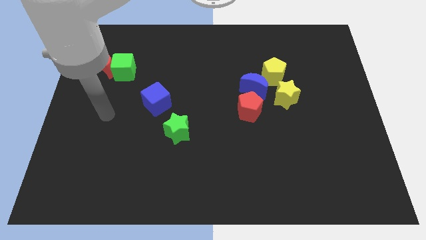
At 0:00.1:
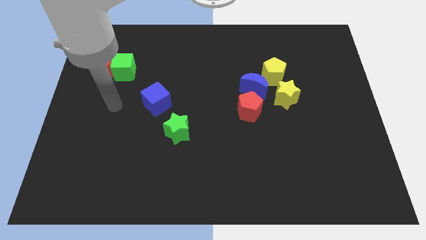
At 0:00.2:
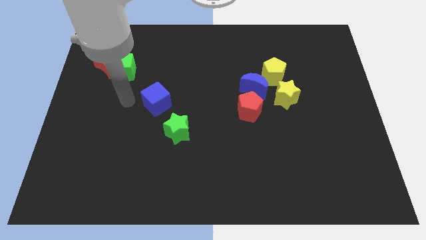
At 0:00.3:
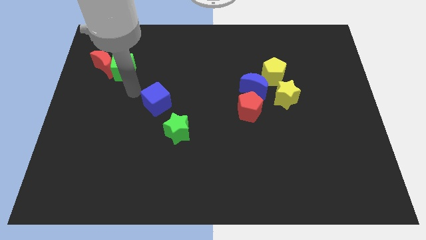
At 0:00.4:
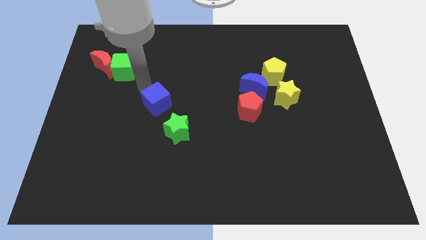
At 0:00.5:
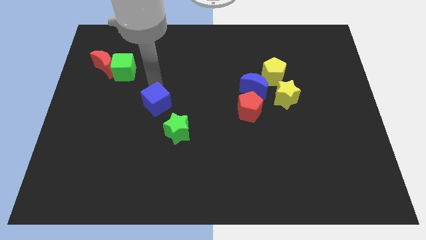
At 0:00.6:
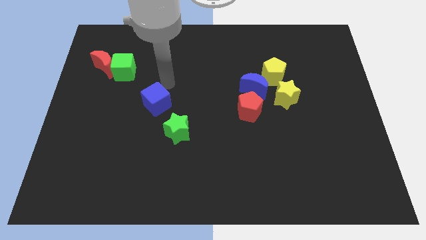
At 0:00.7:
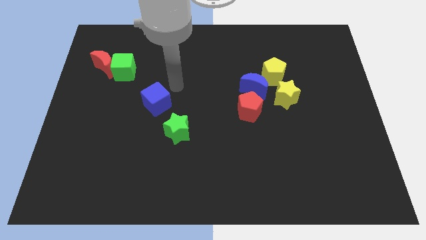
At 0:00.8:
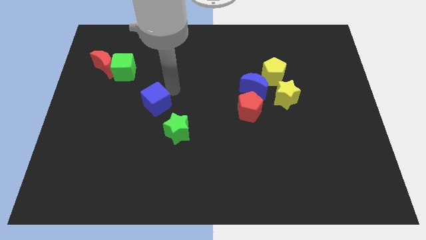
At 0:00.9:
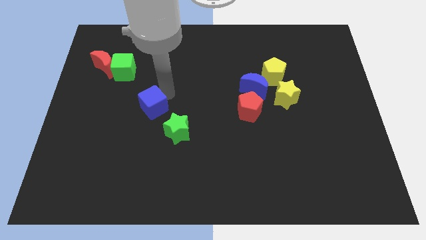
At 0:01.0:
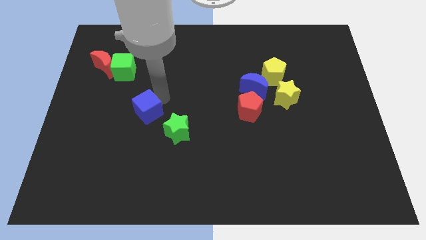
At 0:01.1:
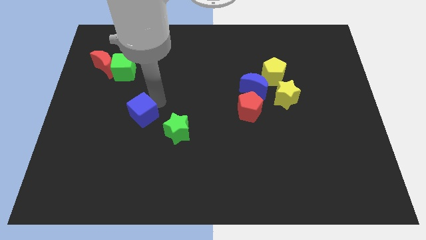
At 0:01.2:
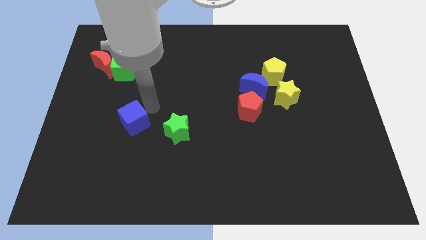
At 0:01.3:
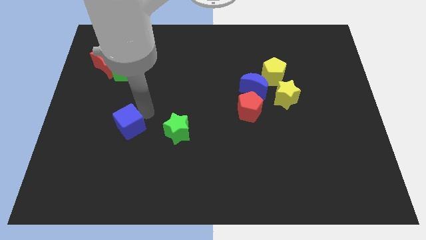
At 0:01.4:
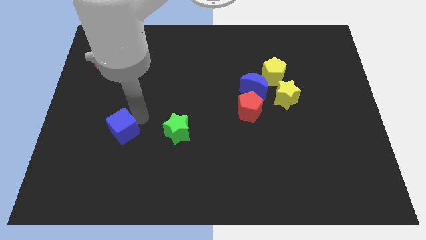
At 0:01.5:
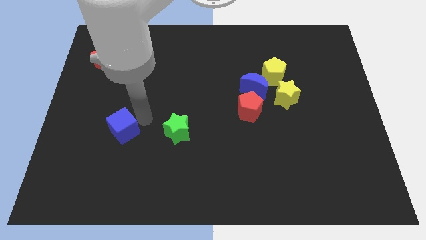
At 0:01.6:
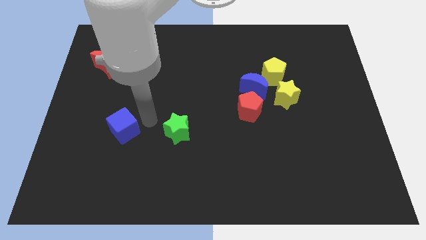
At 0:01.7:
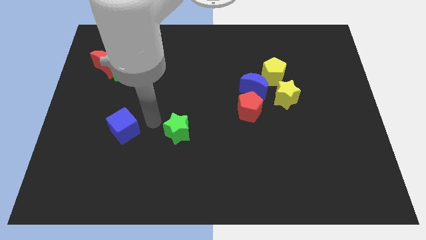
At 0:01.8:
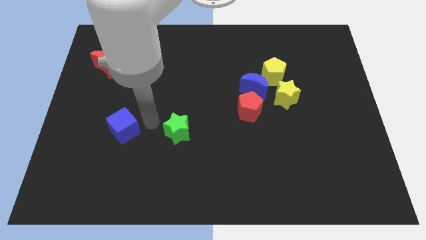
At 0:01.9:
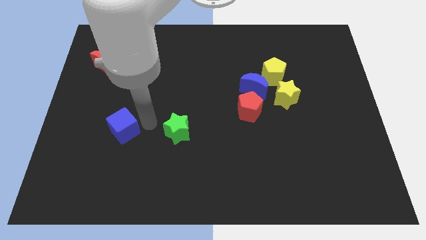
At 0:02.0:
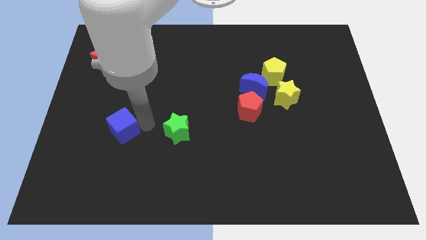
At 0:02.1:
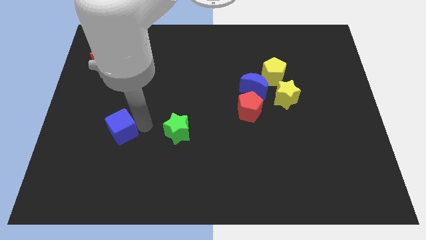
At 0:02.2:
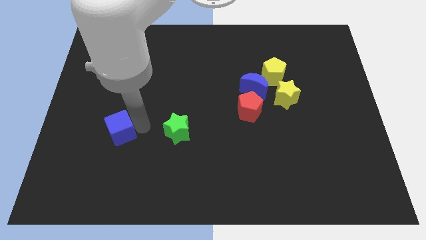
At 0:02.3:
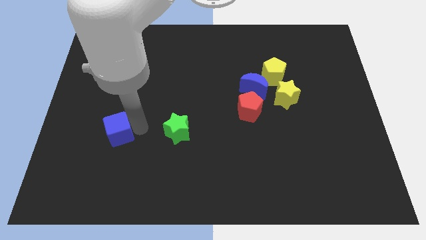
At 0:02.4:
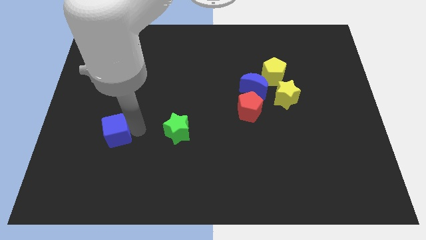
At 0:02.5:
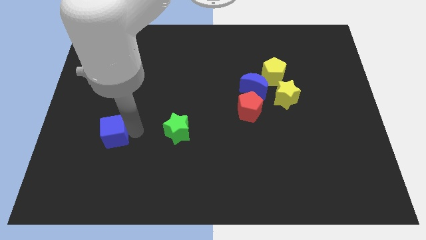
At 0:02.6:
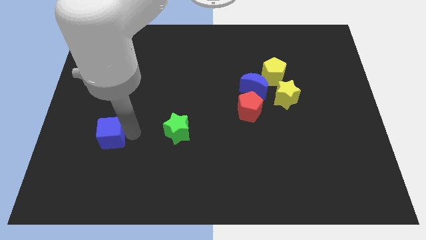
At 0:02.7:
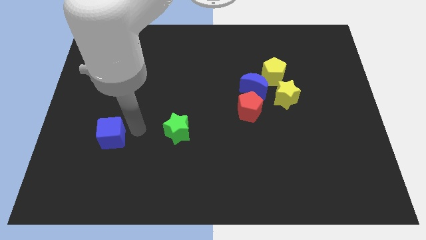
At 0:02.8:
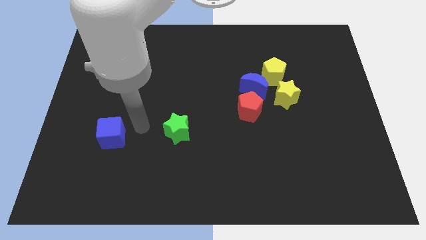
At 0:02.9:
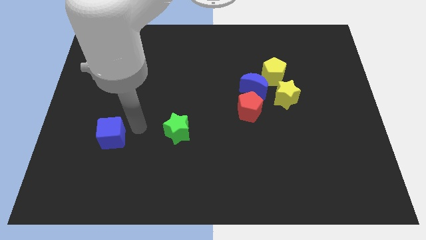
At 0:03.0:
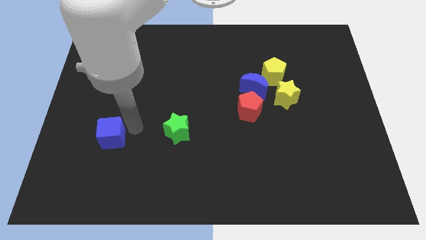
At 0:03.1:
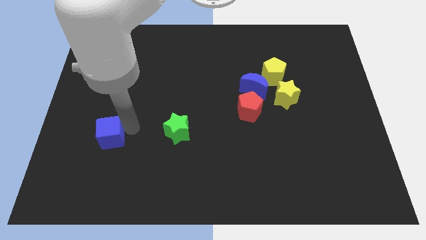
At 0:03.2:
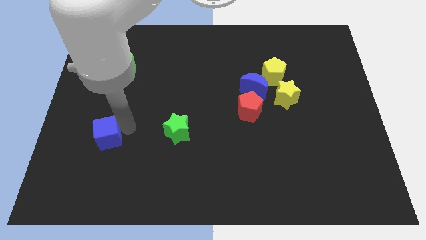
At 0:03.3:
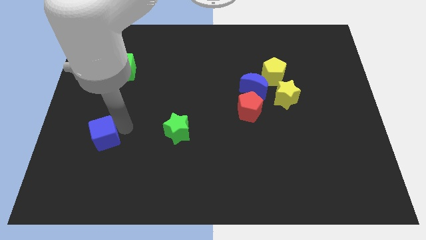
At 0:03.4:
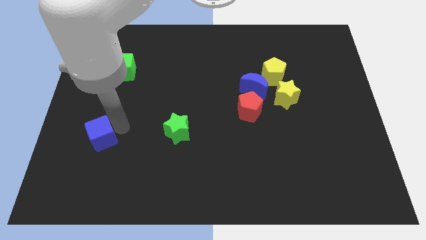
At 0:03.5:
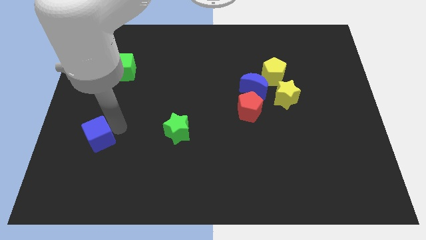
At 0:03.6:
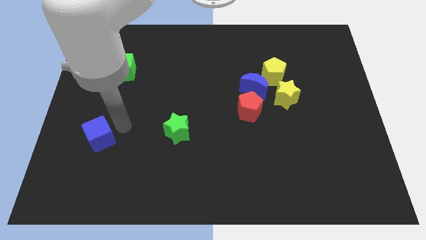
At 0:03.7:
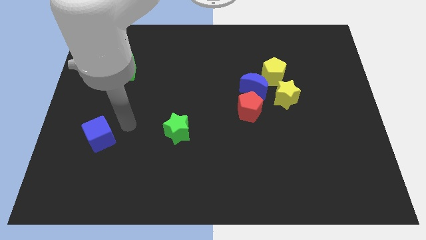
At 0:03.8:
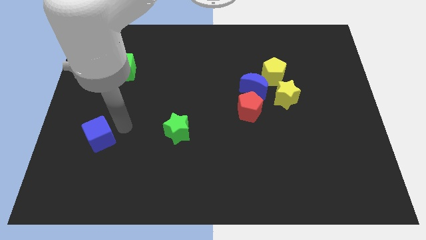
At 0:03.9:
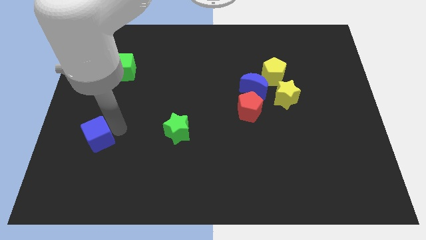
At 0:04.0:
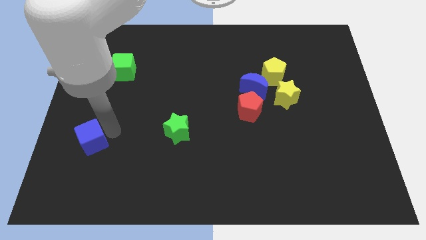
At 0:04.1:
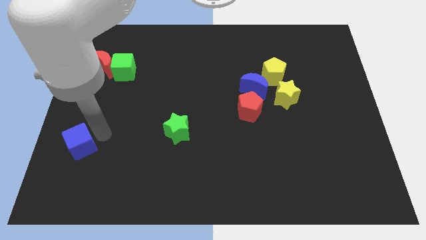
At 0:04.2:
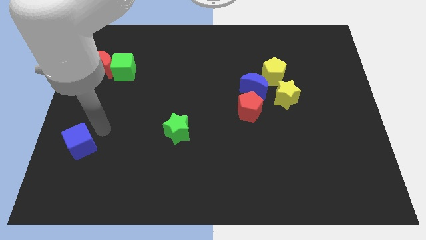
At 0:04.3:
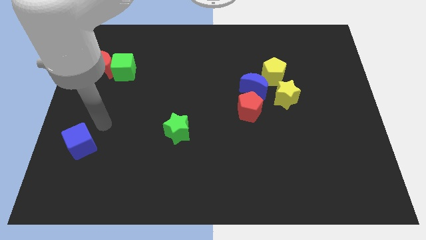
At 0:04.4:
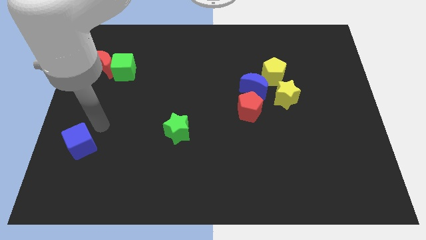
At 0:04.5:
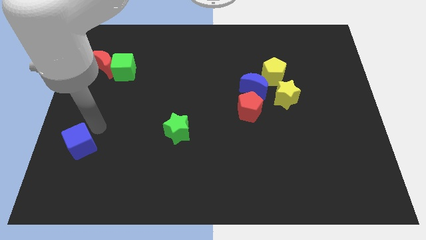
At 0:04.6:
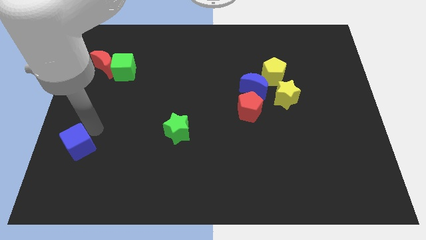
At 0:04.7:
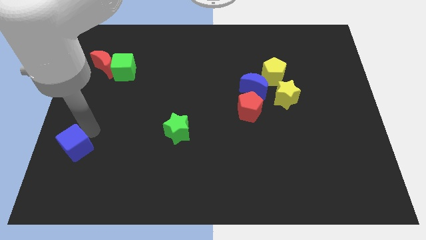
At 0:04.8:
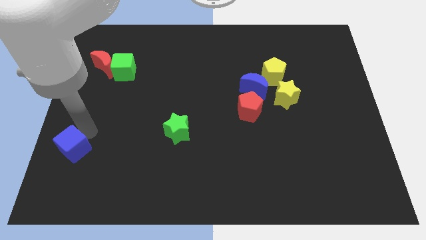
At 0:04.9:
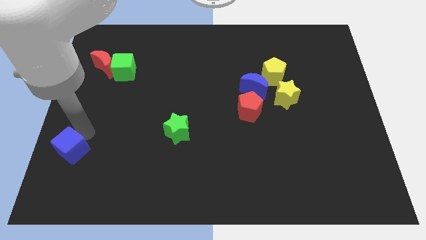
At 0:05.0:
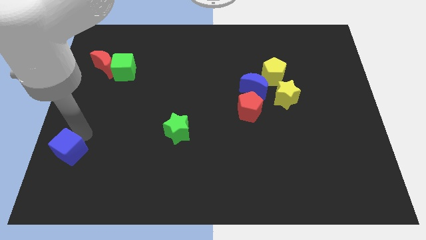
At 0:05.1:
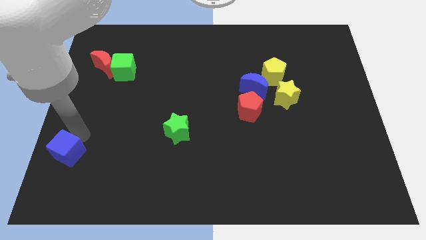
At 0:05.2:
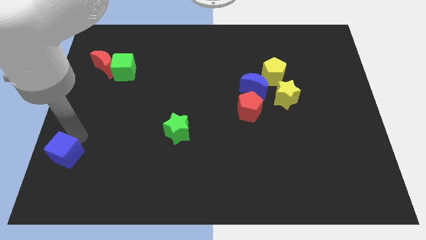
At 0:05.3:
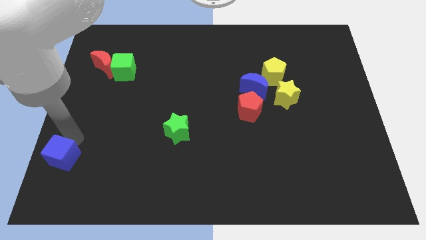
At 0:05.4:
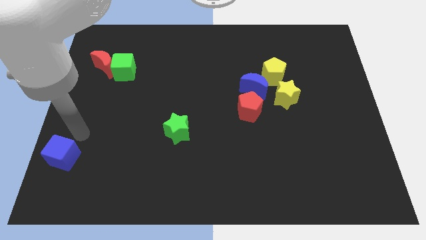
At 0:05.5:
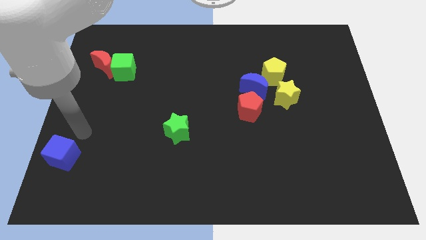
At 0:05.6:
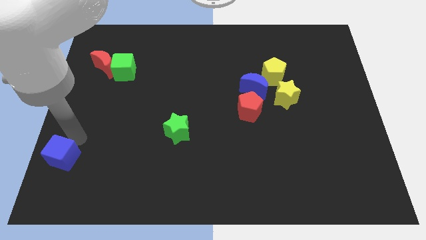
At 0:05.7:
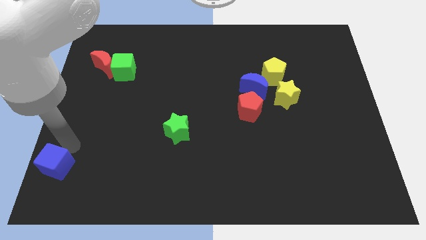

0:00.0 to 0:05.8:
push the blue cube to the lower left corner
